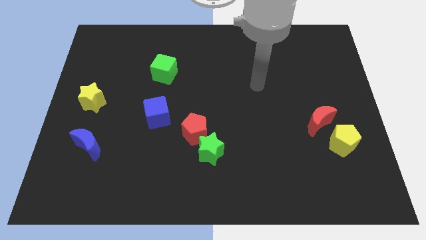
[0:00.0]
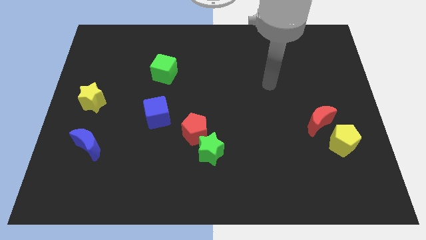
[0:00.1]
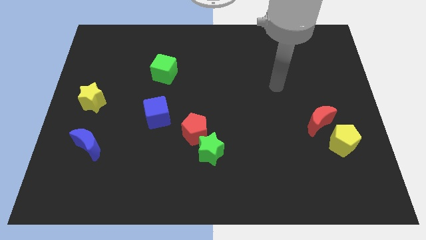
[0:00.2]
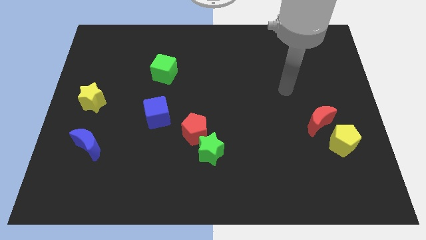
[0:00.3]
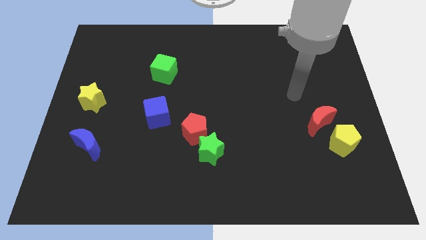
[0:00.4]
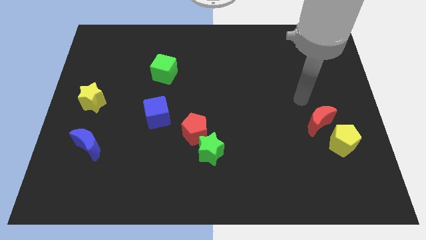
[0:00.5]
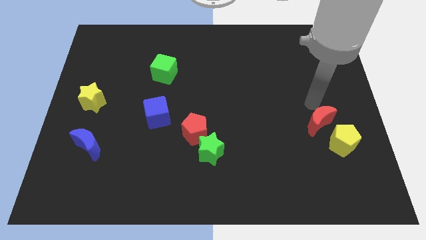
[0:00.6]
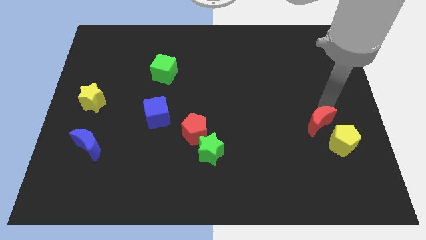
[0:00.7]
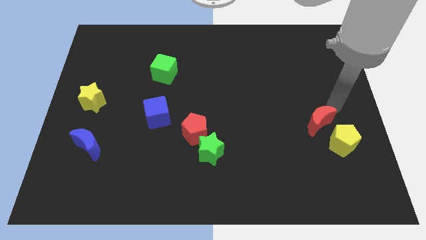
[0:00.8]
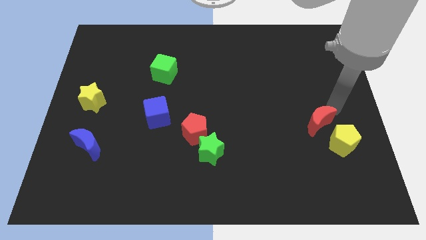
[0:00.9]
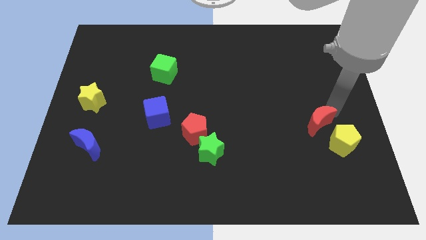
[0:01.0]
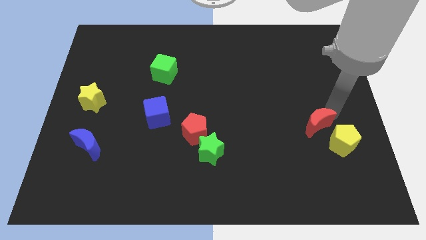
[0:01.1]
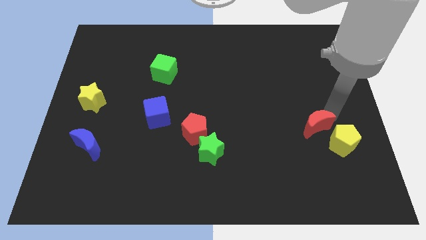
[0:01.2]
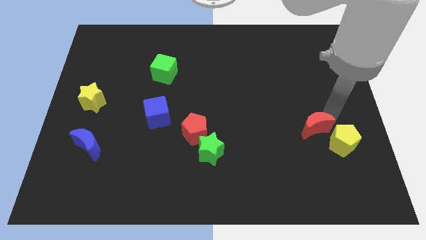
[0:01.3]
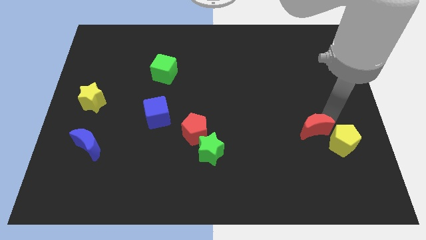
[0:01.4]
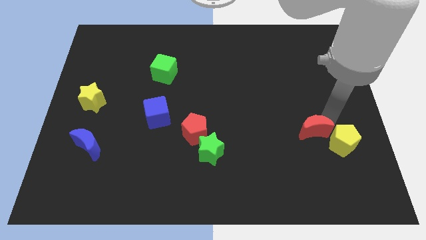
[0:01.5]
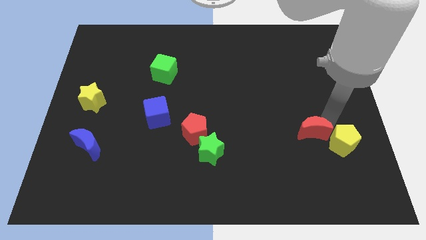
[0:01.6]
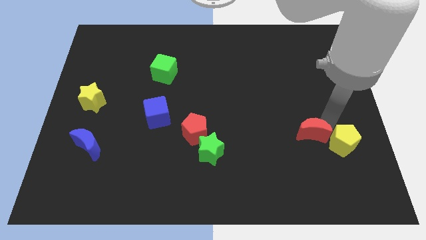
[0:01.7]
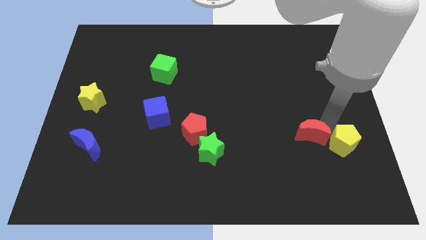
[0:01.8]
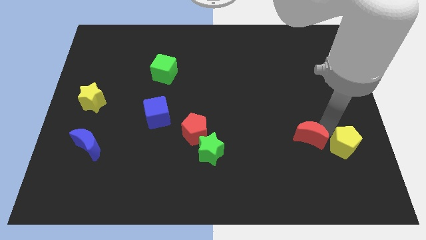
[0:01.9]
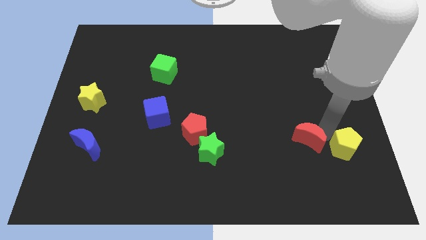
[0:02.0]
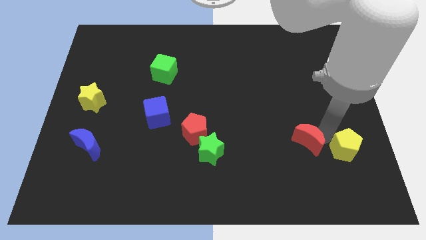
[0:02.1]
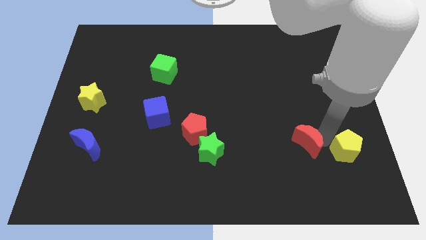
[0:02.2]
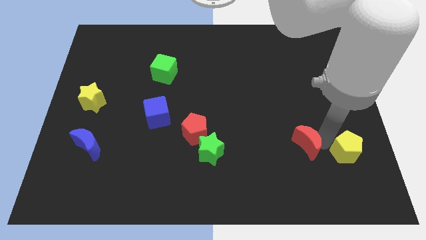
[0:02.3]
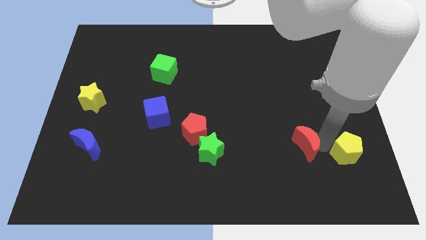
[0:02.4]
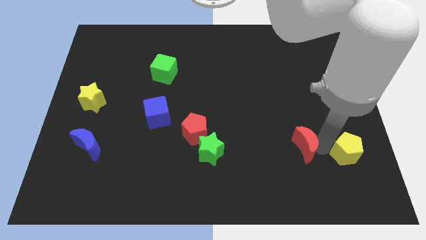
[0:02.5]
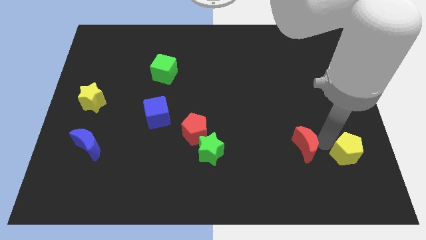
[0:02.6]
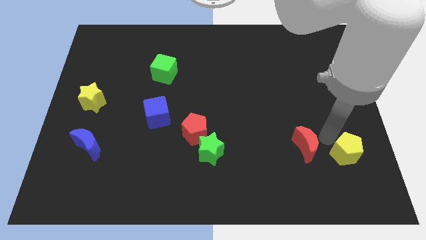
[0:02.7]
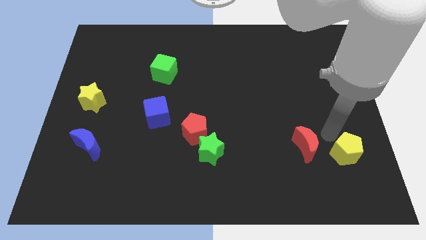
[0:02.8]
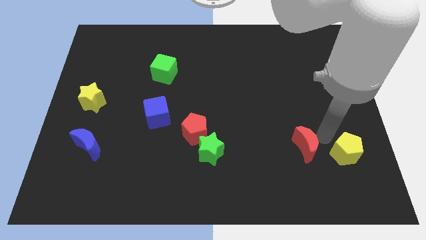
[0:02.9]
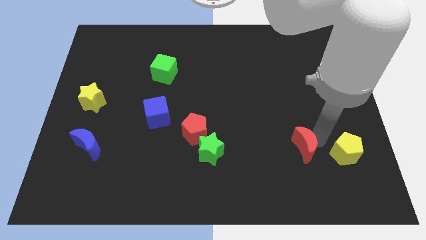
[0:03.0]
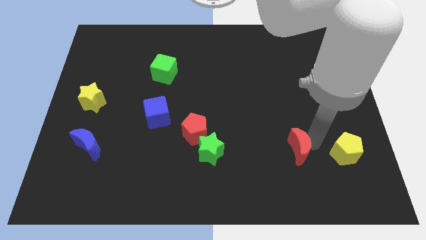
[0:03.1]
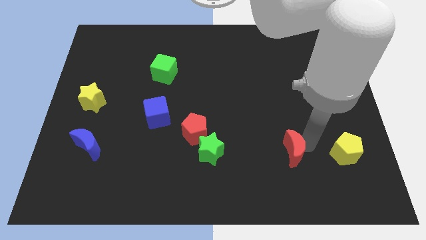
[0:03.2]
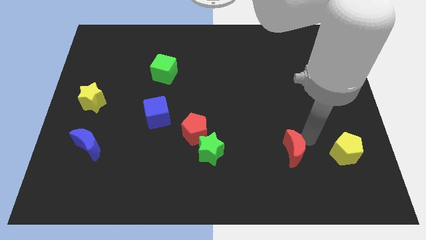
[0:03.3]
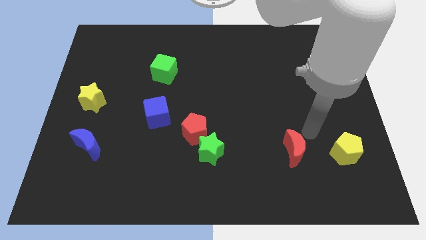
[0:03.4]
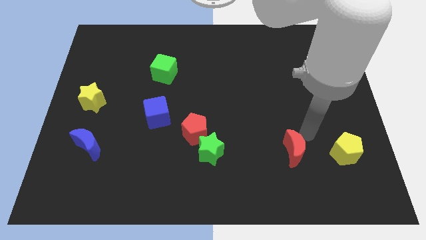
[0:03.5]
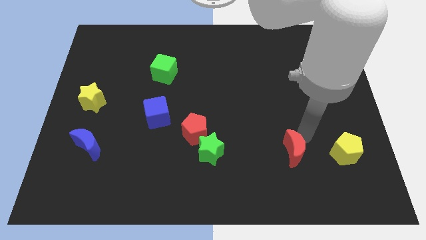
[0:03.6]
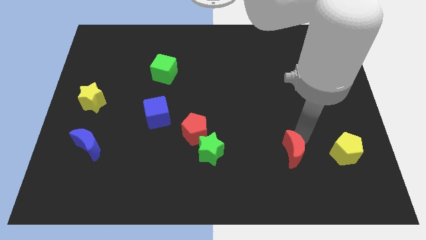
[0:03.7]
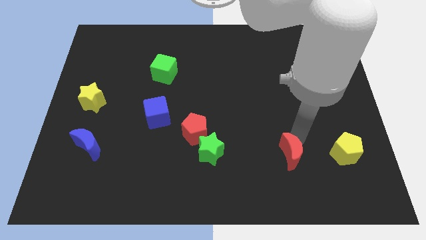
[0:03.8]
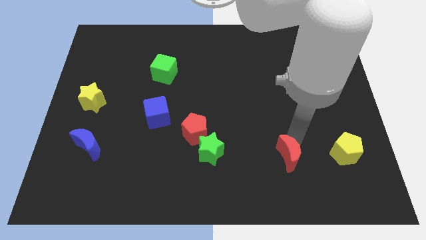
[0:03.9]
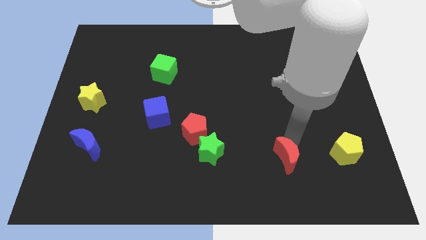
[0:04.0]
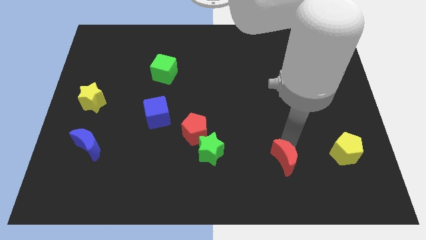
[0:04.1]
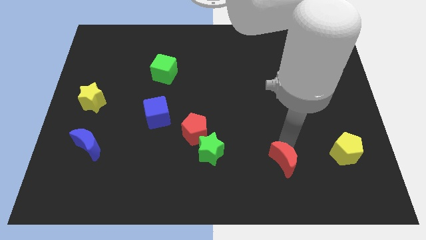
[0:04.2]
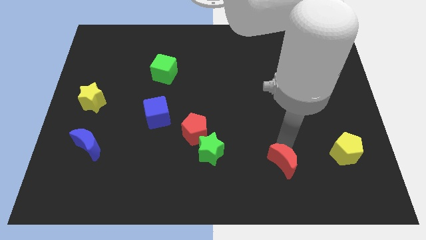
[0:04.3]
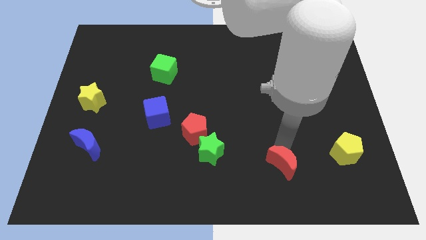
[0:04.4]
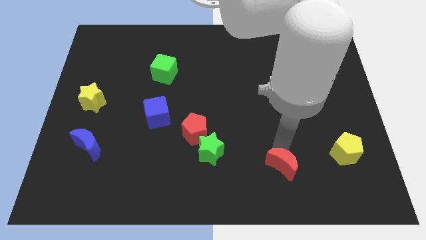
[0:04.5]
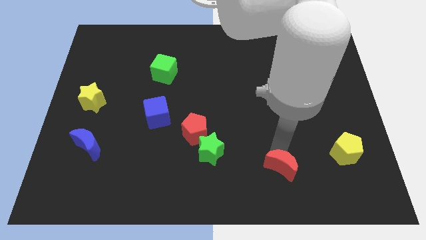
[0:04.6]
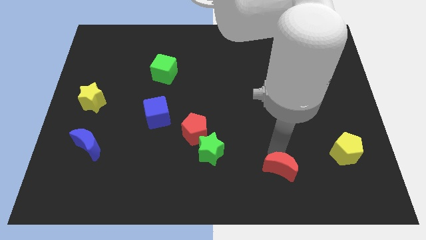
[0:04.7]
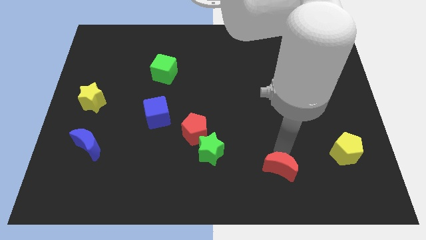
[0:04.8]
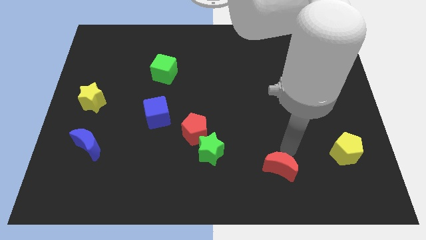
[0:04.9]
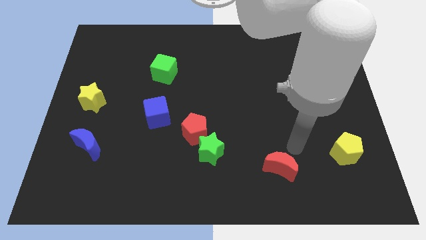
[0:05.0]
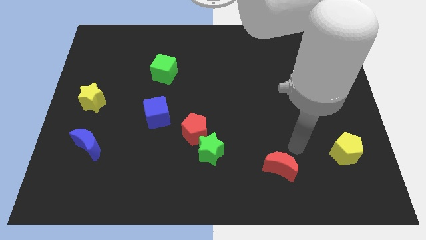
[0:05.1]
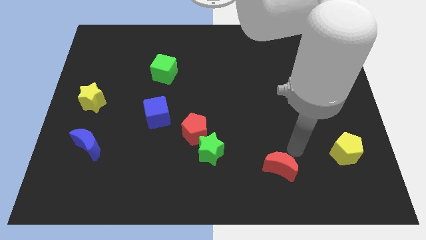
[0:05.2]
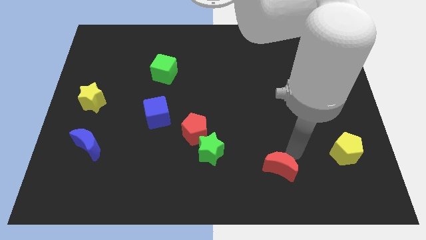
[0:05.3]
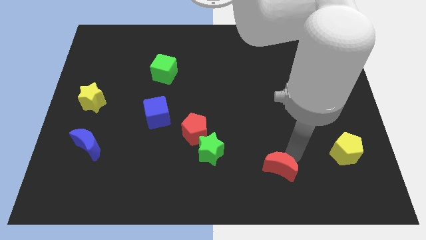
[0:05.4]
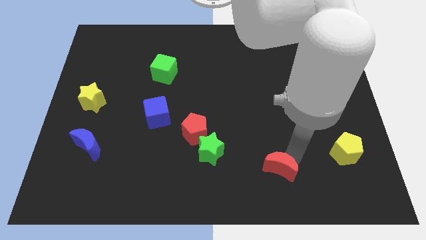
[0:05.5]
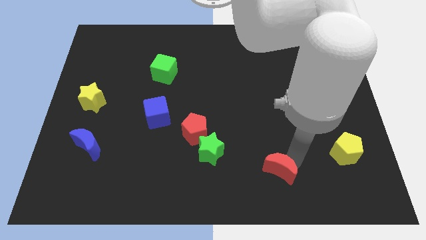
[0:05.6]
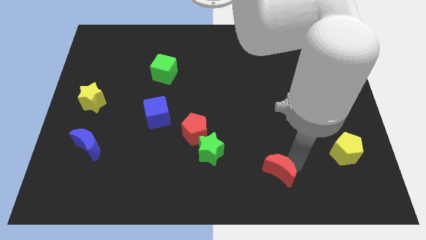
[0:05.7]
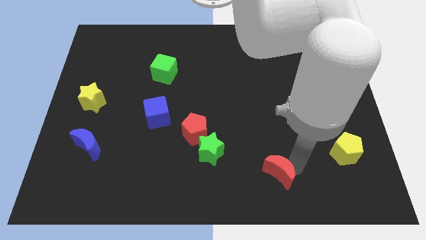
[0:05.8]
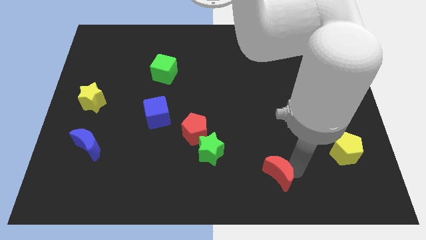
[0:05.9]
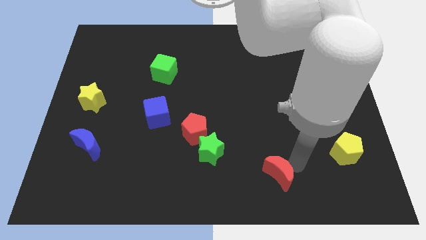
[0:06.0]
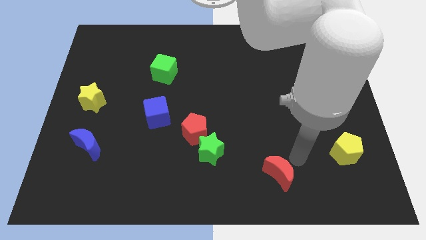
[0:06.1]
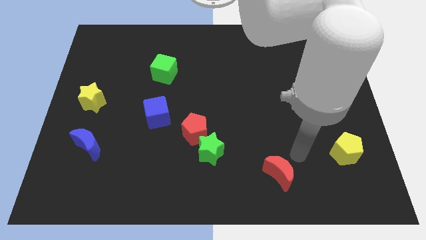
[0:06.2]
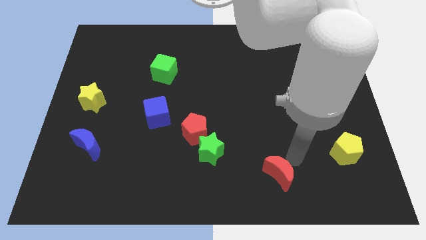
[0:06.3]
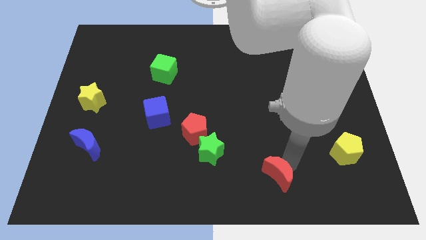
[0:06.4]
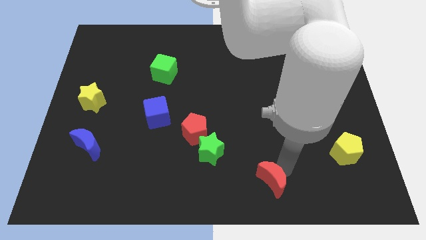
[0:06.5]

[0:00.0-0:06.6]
put the red moon to the bottom
